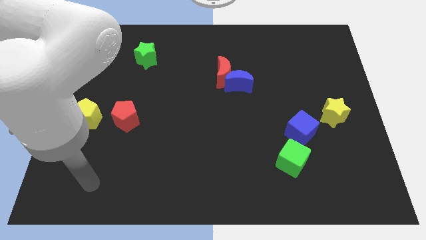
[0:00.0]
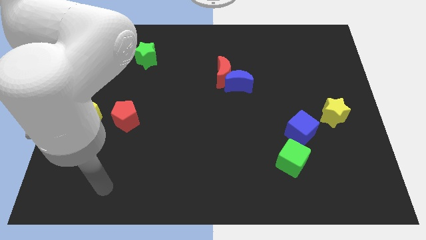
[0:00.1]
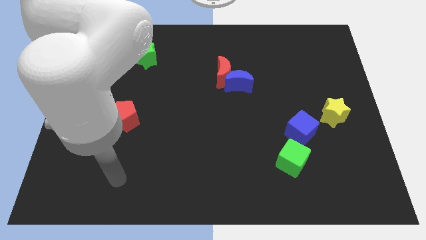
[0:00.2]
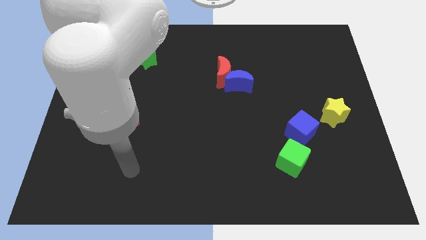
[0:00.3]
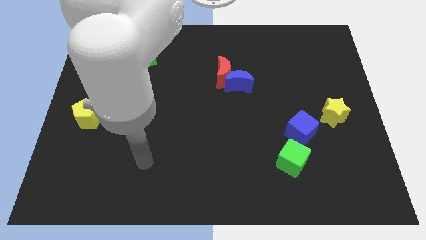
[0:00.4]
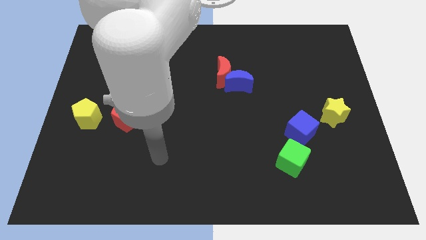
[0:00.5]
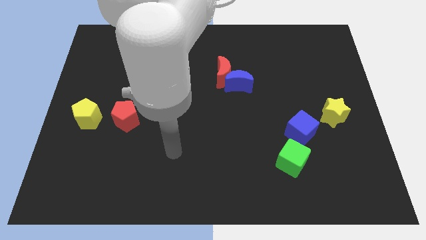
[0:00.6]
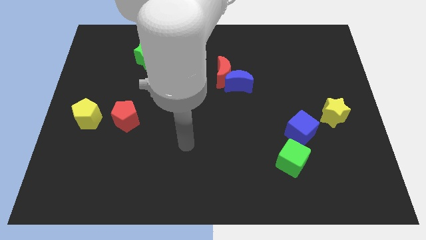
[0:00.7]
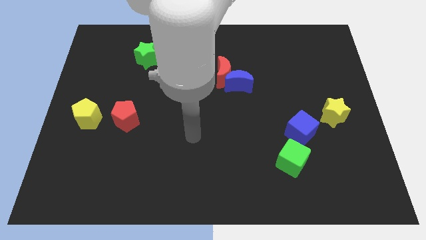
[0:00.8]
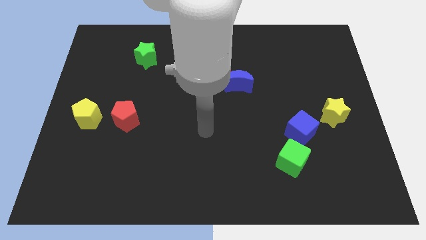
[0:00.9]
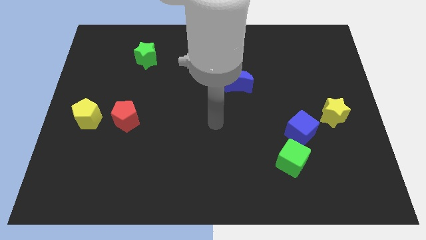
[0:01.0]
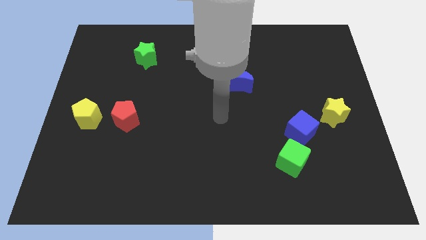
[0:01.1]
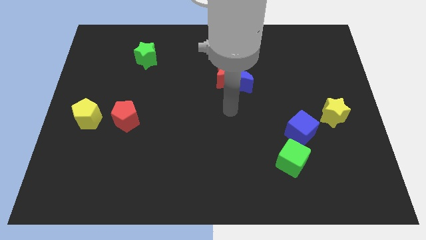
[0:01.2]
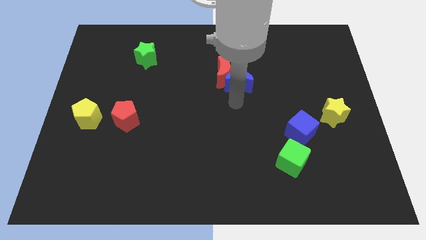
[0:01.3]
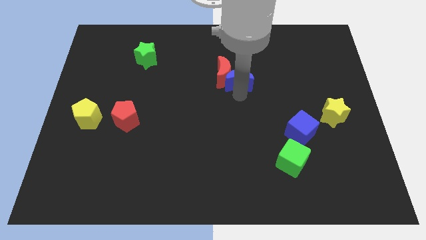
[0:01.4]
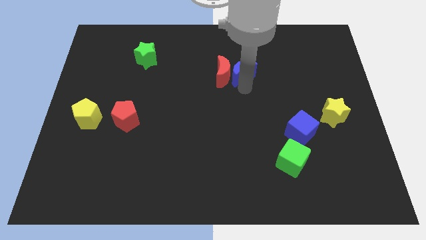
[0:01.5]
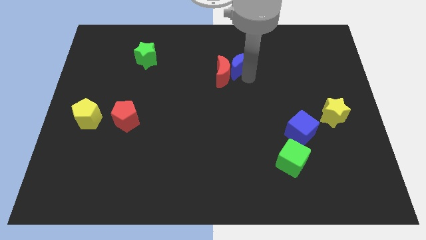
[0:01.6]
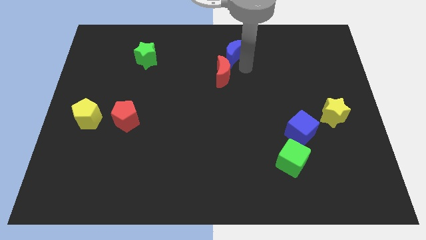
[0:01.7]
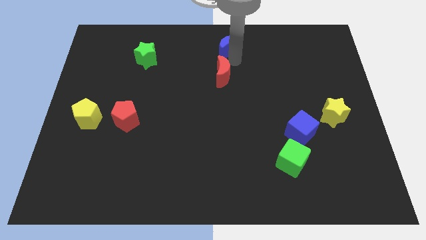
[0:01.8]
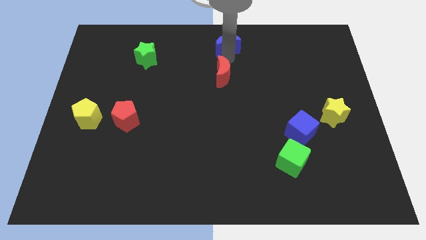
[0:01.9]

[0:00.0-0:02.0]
pull the red moon apart from the blue moon

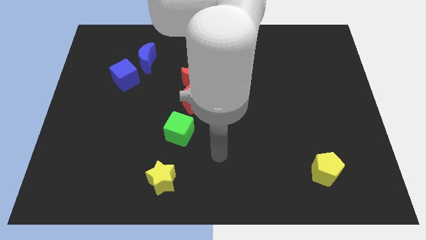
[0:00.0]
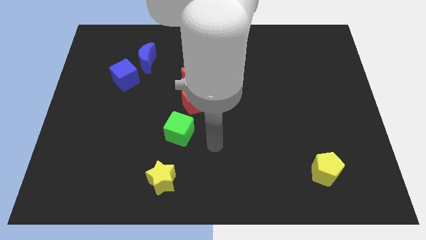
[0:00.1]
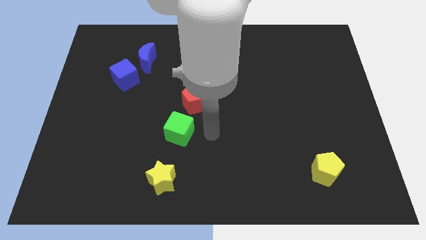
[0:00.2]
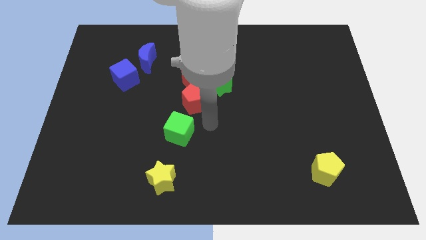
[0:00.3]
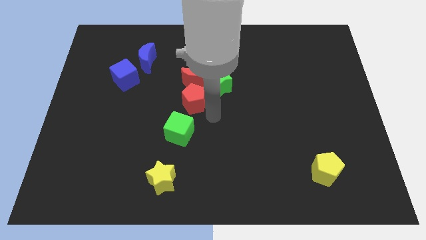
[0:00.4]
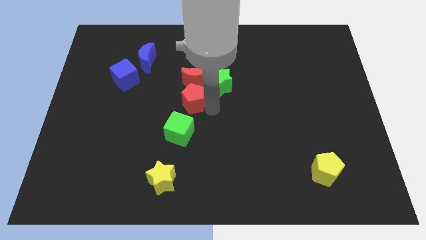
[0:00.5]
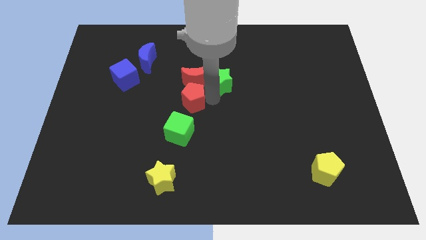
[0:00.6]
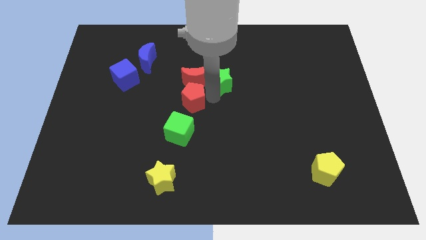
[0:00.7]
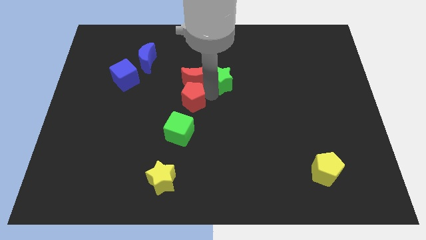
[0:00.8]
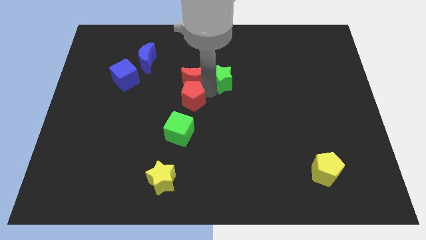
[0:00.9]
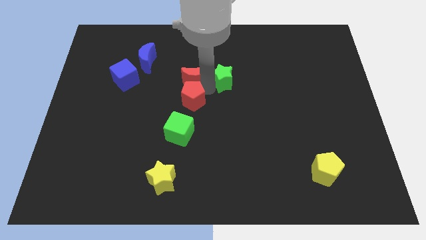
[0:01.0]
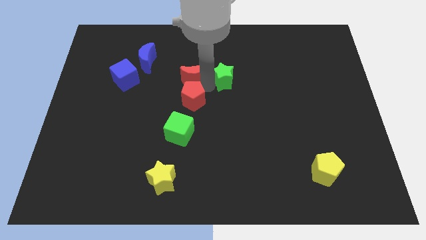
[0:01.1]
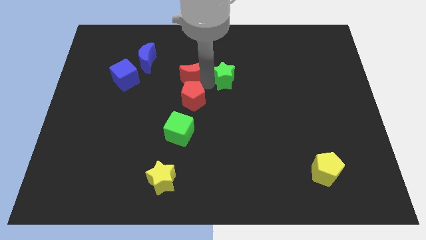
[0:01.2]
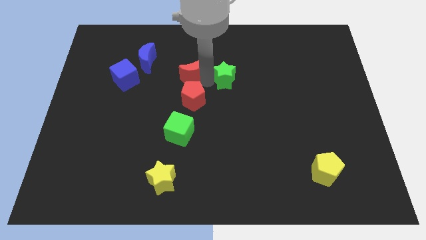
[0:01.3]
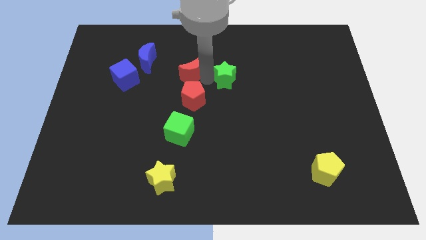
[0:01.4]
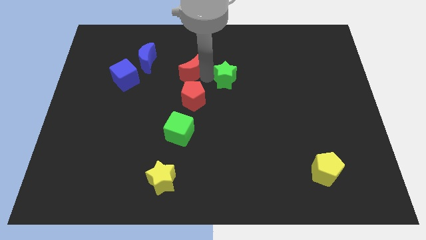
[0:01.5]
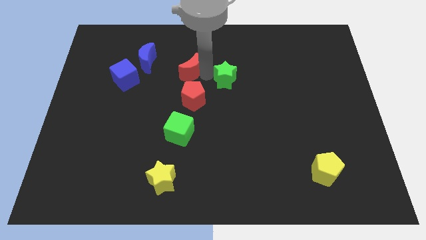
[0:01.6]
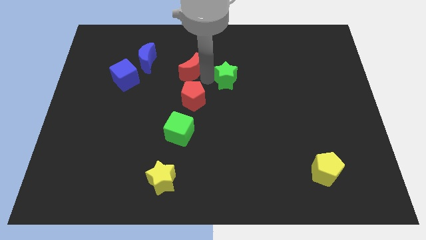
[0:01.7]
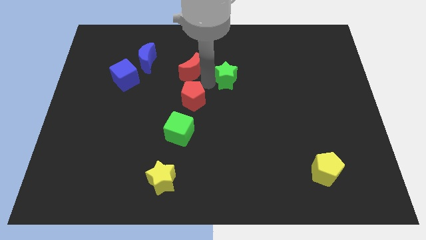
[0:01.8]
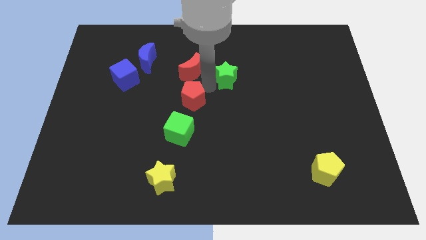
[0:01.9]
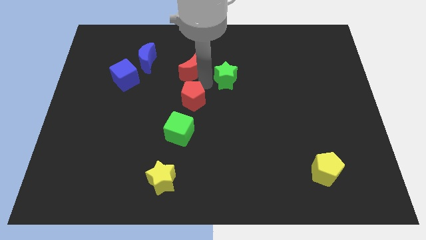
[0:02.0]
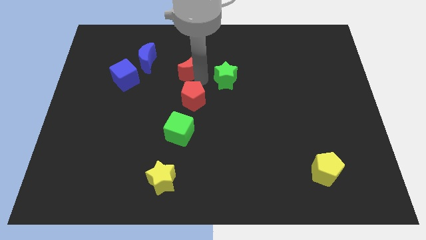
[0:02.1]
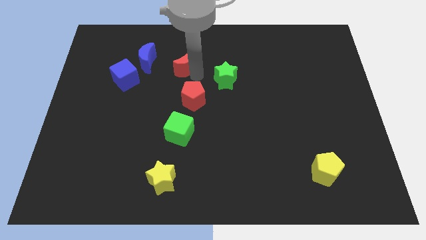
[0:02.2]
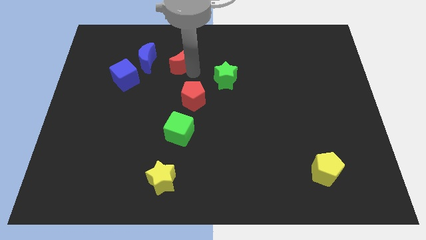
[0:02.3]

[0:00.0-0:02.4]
move the red moon away from the green star and red pentagon

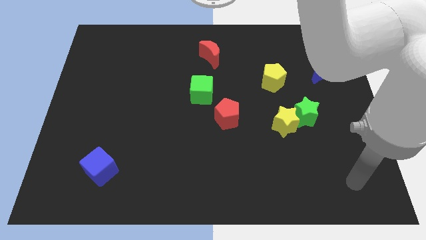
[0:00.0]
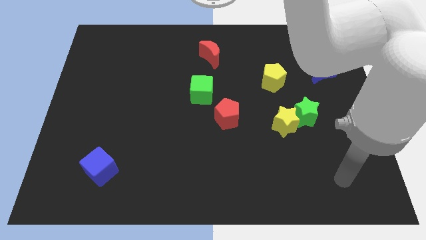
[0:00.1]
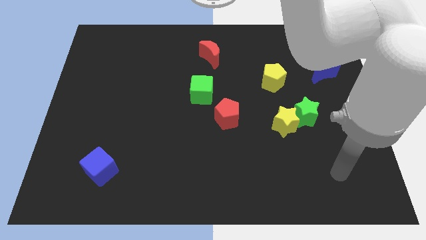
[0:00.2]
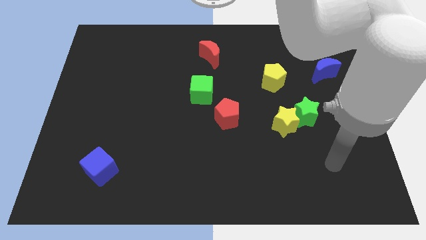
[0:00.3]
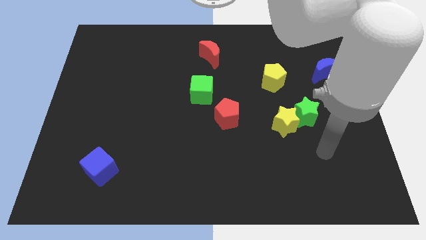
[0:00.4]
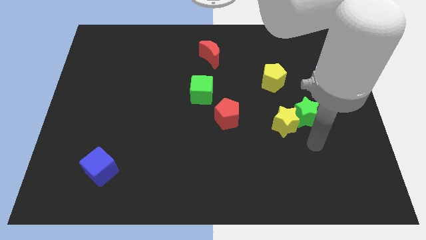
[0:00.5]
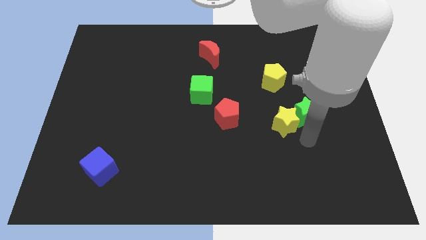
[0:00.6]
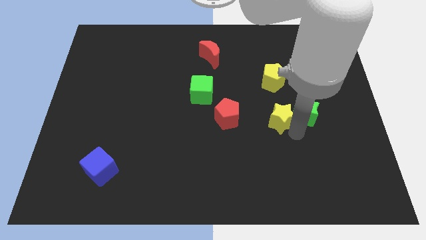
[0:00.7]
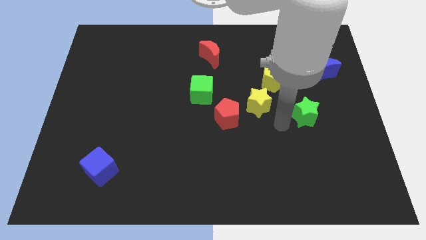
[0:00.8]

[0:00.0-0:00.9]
pull the green star apart from the yellow star

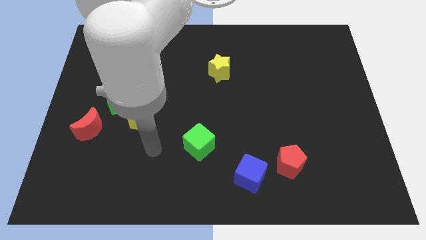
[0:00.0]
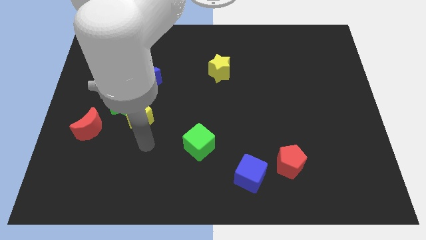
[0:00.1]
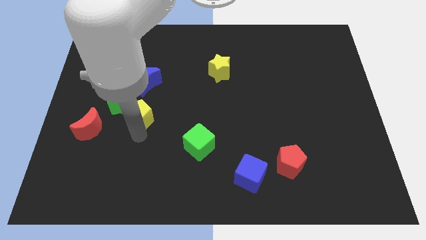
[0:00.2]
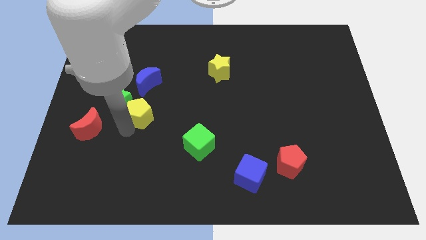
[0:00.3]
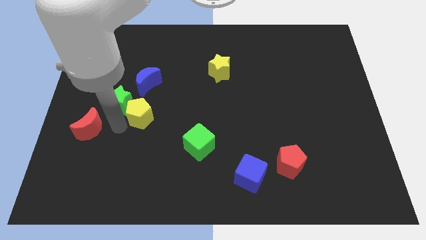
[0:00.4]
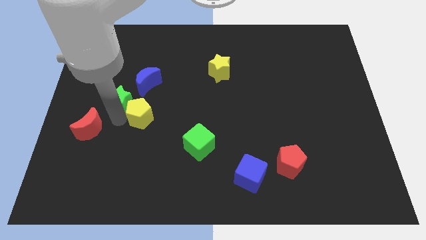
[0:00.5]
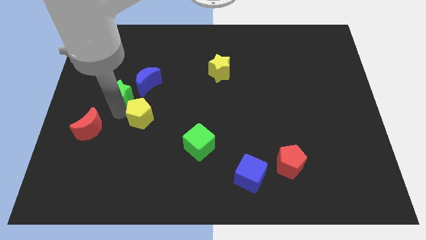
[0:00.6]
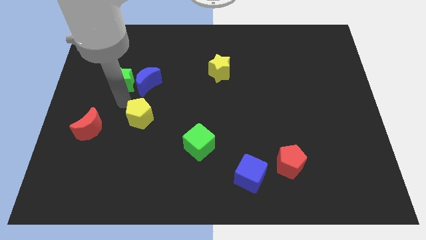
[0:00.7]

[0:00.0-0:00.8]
pull the yellow pentagon apart from the green star

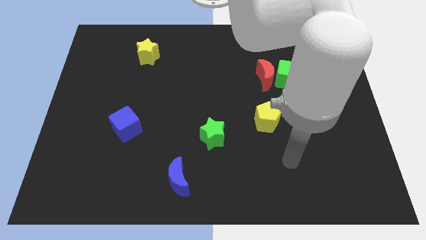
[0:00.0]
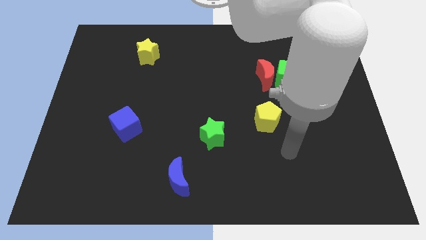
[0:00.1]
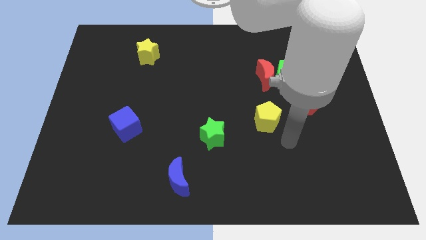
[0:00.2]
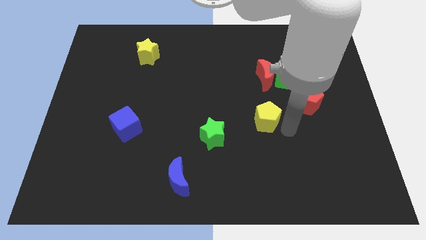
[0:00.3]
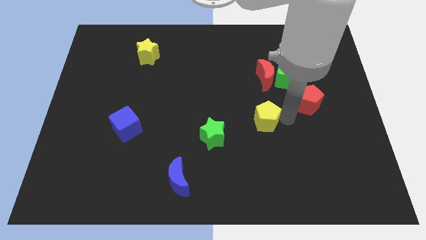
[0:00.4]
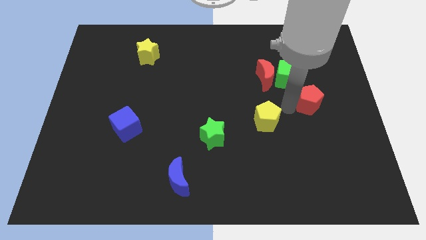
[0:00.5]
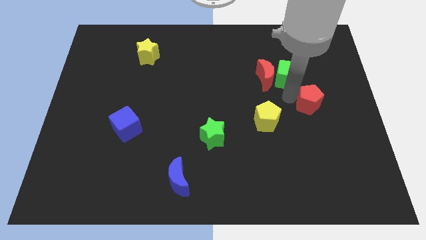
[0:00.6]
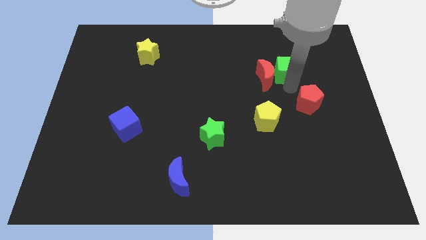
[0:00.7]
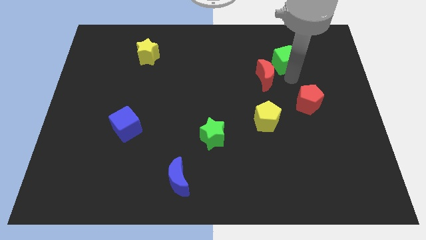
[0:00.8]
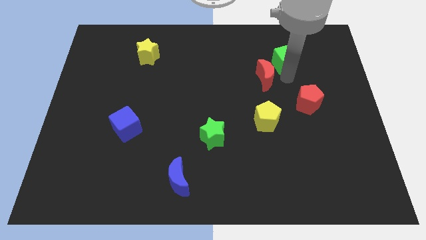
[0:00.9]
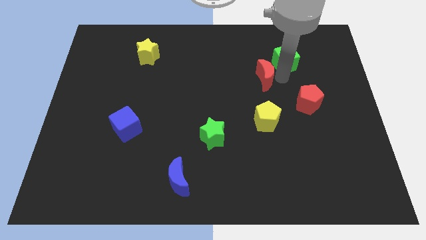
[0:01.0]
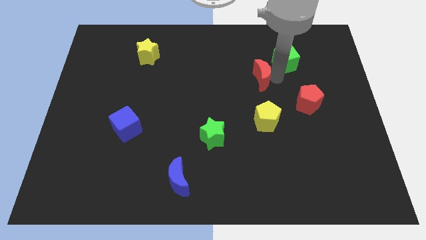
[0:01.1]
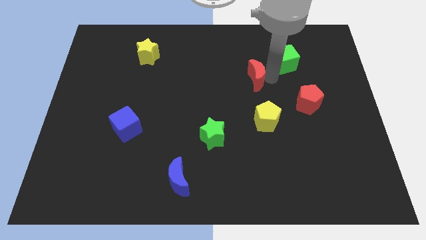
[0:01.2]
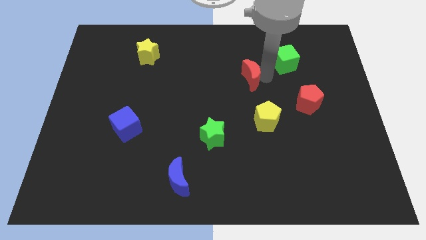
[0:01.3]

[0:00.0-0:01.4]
separate the red moon from the green cube

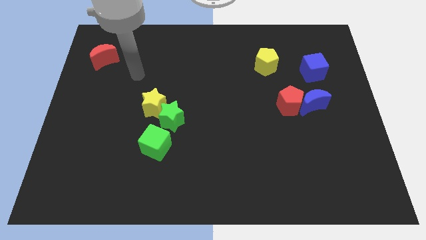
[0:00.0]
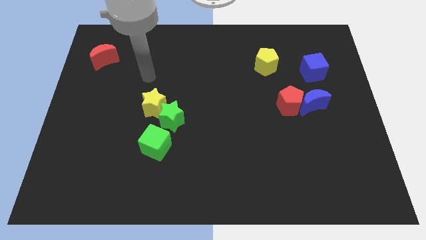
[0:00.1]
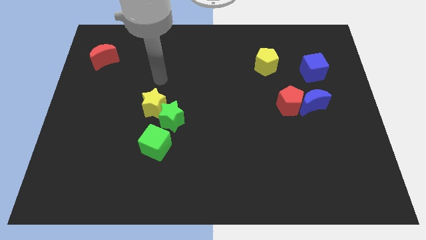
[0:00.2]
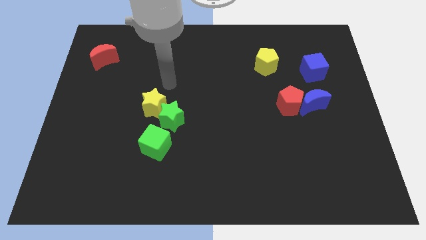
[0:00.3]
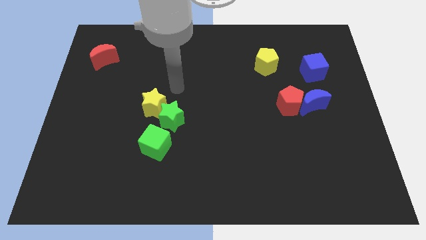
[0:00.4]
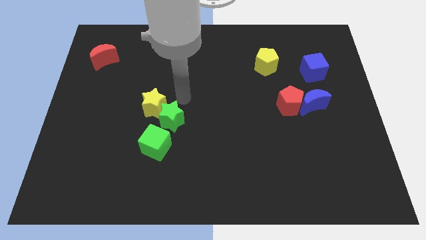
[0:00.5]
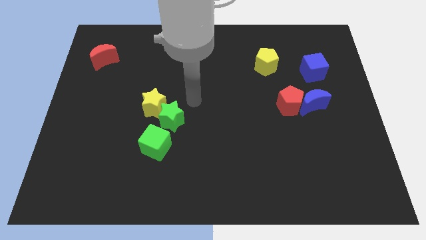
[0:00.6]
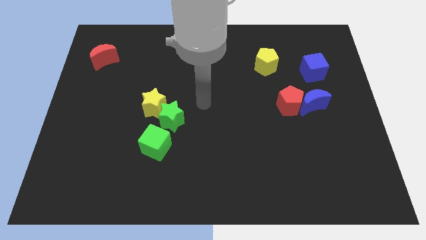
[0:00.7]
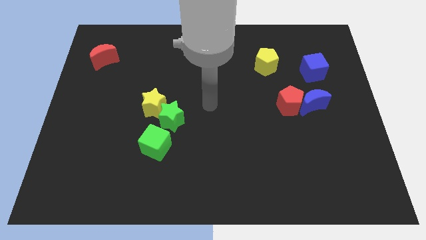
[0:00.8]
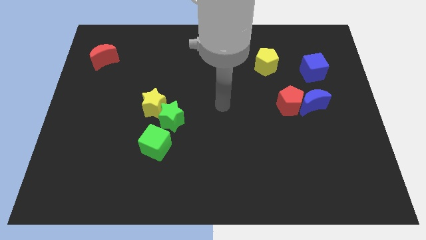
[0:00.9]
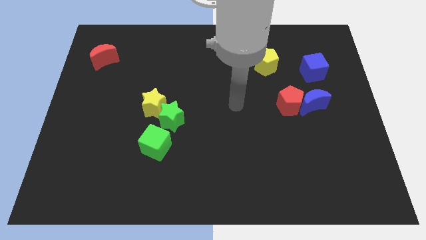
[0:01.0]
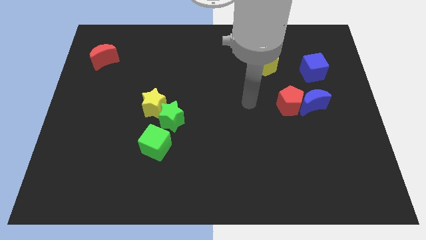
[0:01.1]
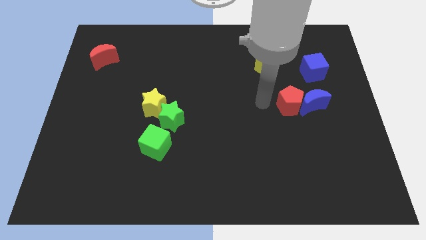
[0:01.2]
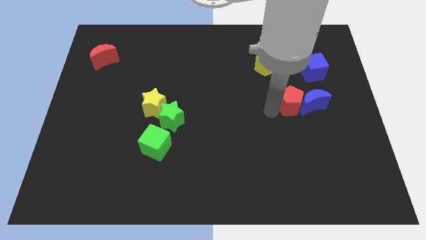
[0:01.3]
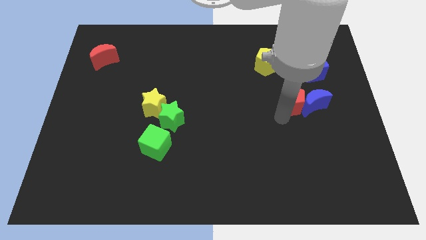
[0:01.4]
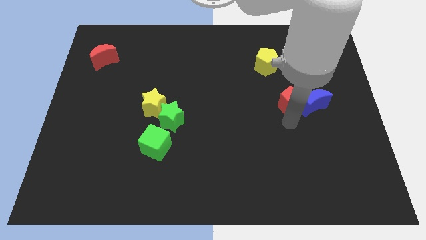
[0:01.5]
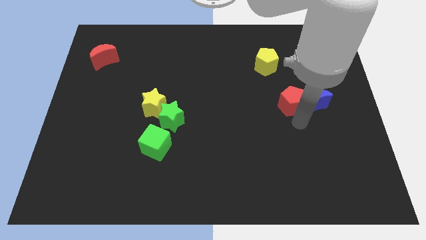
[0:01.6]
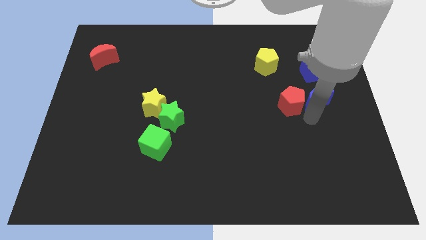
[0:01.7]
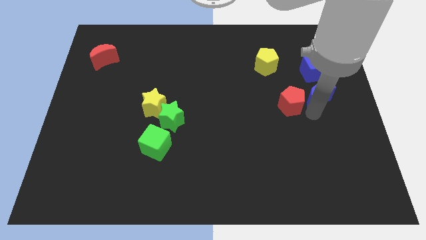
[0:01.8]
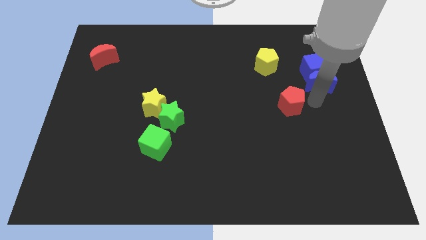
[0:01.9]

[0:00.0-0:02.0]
move the red pentagon away from the blue moon
